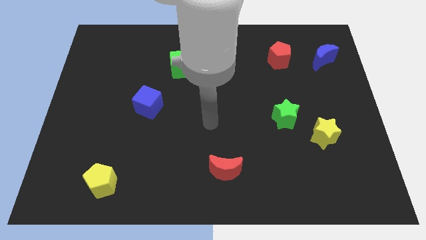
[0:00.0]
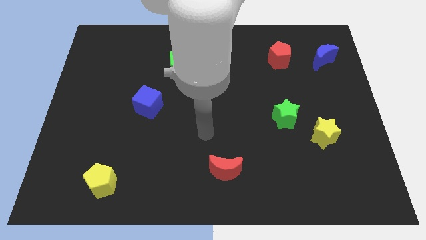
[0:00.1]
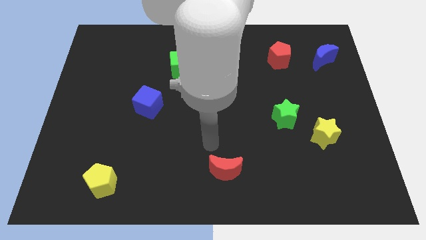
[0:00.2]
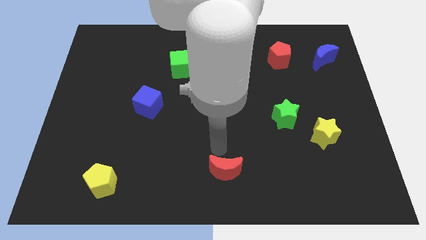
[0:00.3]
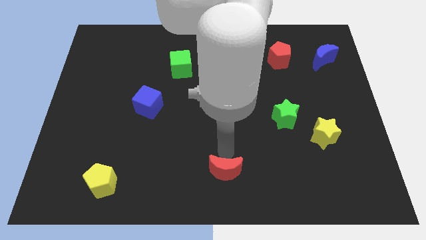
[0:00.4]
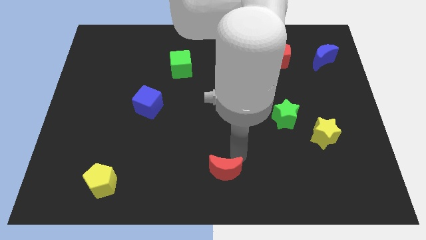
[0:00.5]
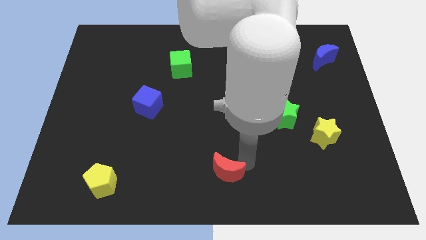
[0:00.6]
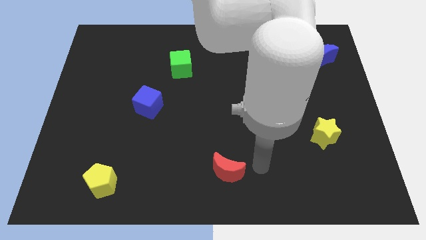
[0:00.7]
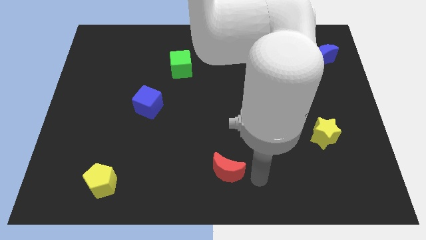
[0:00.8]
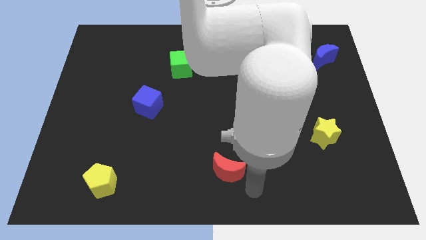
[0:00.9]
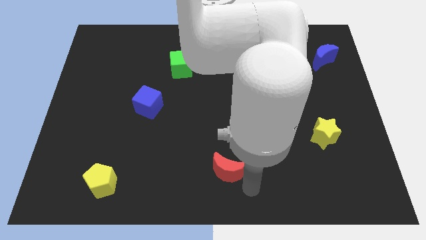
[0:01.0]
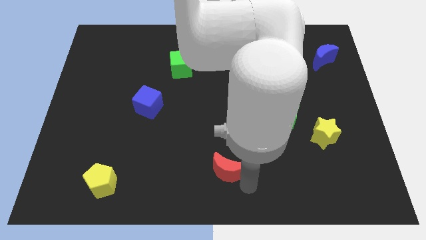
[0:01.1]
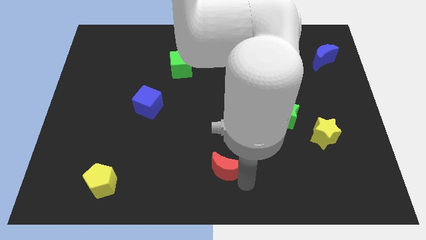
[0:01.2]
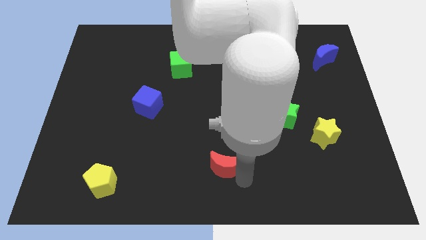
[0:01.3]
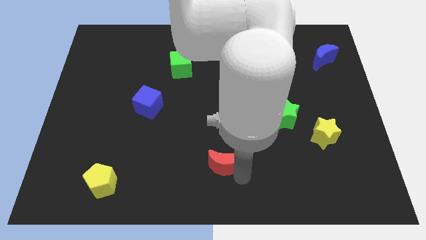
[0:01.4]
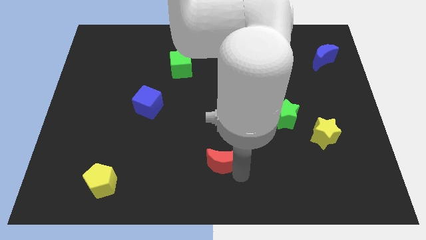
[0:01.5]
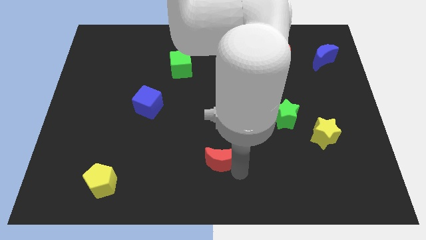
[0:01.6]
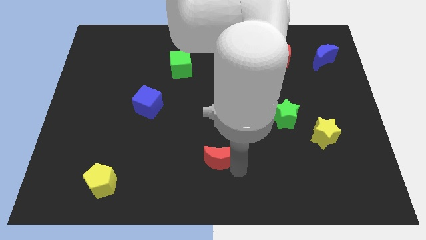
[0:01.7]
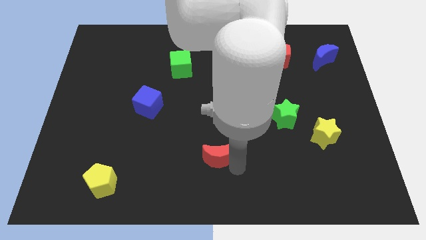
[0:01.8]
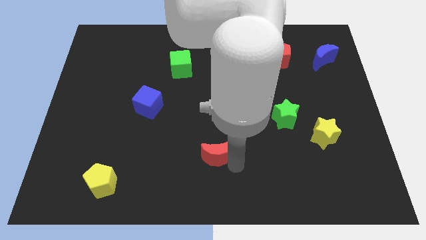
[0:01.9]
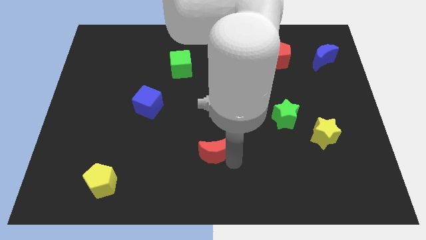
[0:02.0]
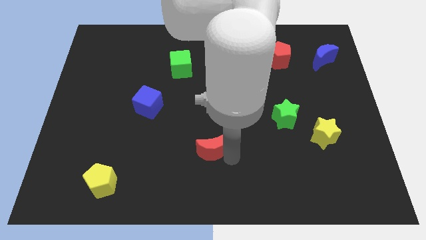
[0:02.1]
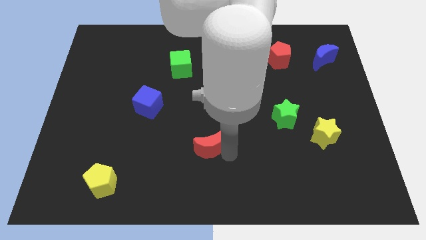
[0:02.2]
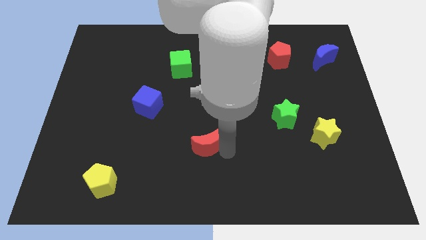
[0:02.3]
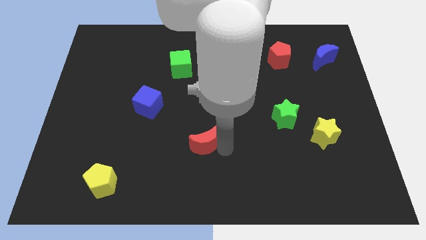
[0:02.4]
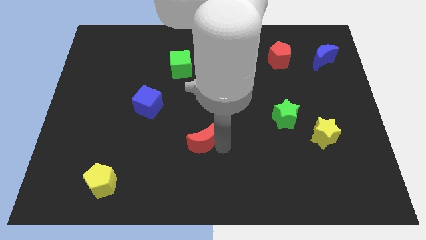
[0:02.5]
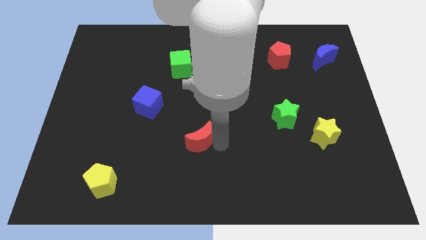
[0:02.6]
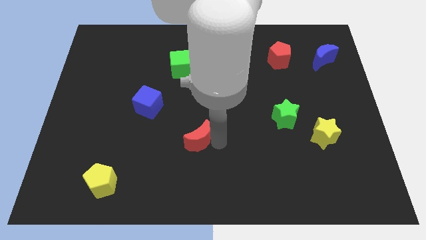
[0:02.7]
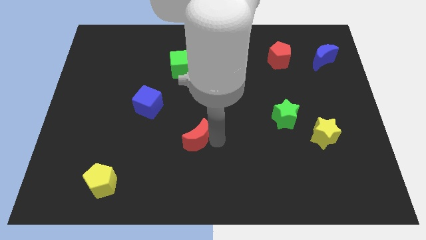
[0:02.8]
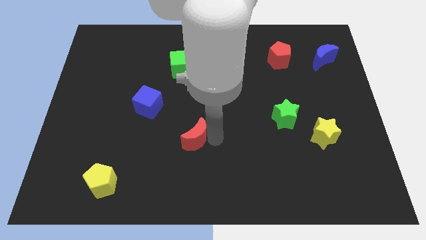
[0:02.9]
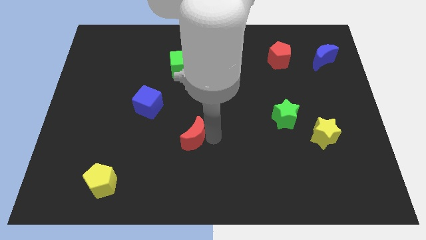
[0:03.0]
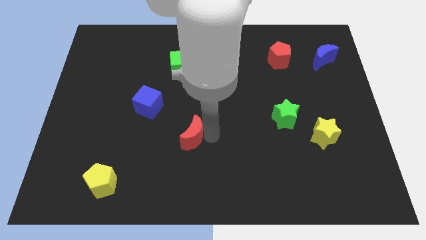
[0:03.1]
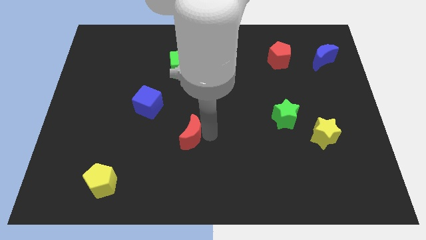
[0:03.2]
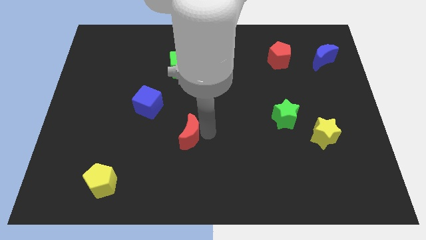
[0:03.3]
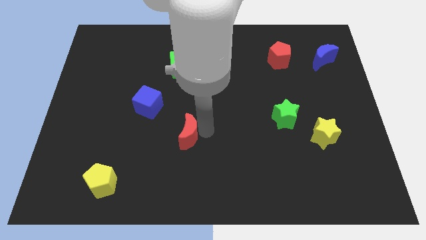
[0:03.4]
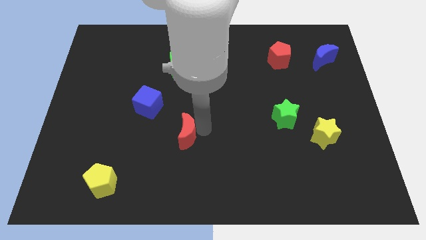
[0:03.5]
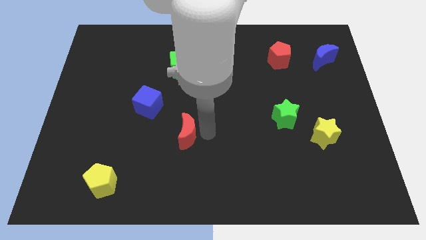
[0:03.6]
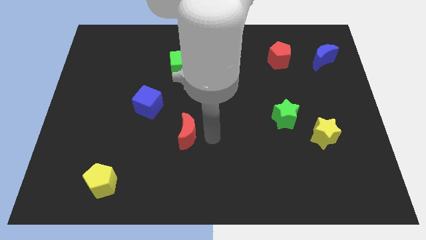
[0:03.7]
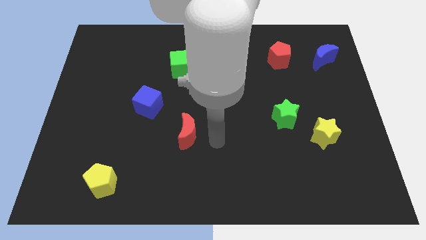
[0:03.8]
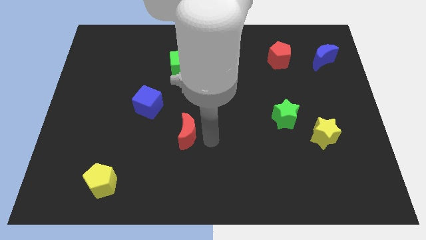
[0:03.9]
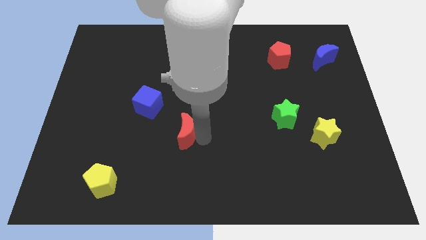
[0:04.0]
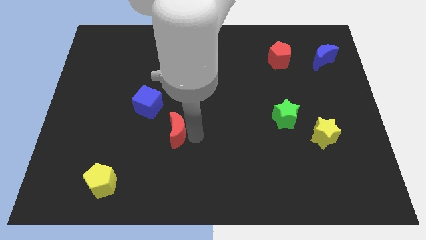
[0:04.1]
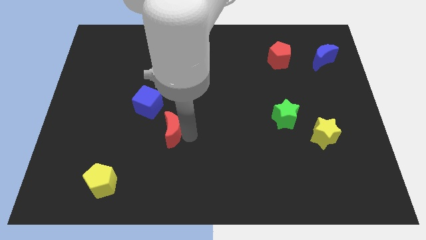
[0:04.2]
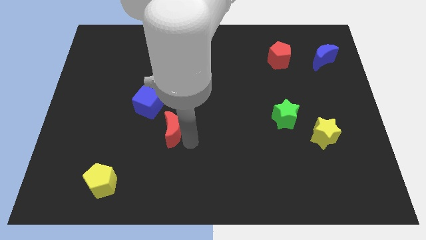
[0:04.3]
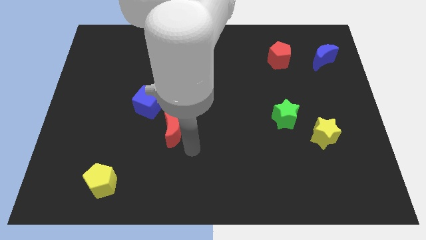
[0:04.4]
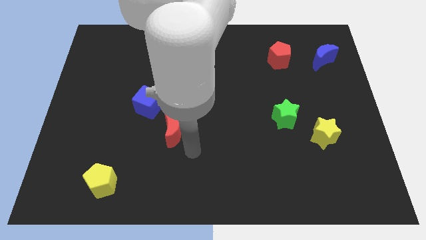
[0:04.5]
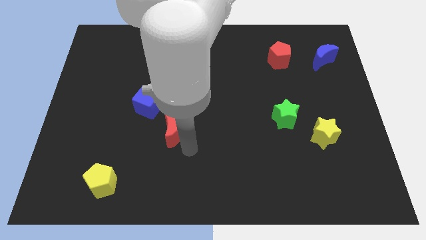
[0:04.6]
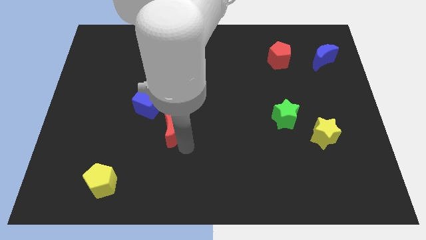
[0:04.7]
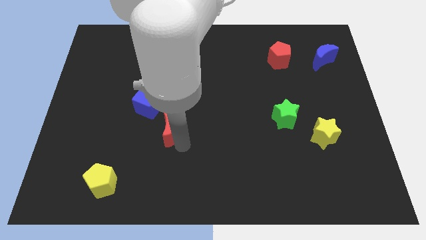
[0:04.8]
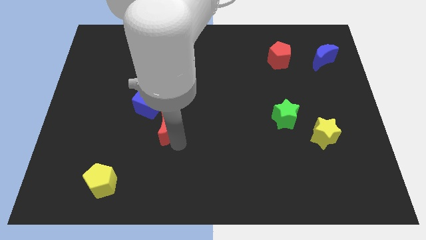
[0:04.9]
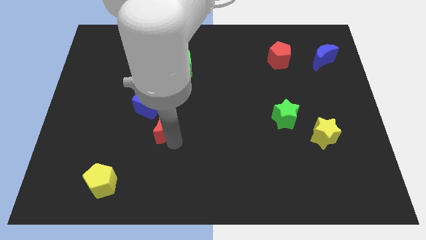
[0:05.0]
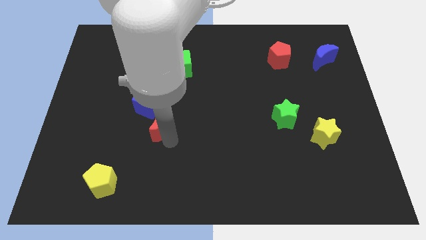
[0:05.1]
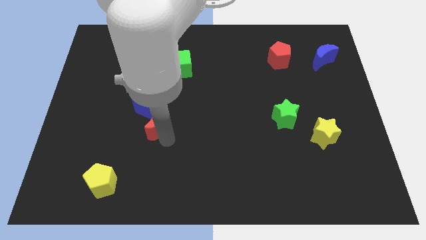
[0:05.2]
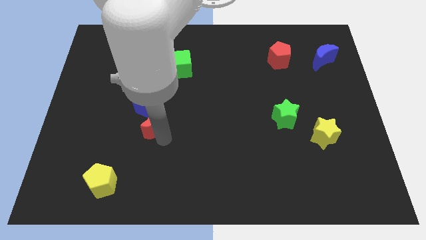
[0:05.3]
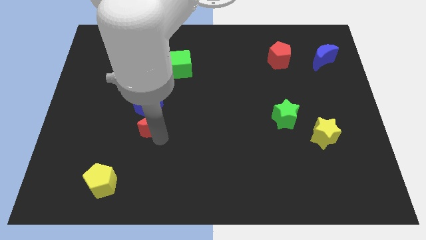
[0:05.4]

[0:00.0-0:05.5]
move the red moon towards the blue cube

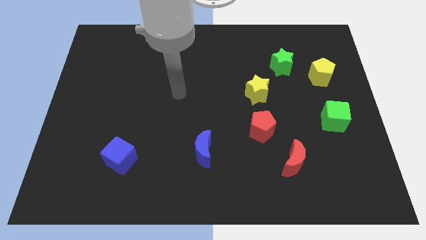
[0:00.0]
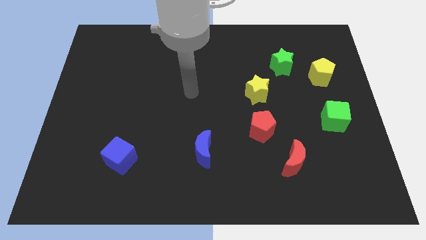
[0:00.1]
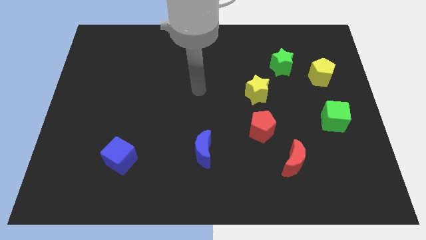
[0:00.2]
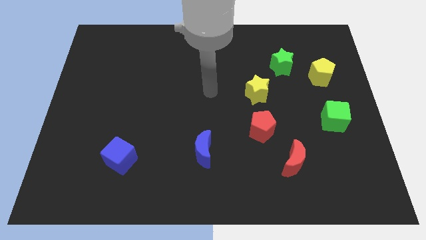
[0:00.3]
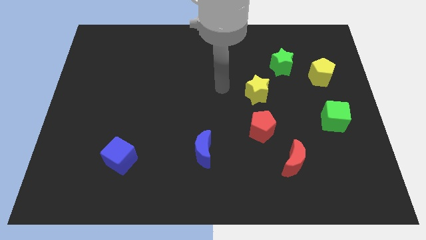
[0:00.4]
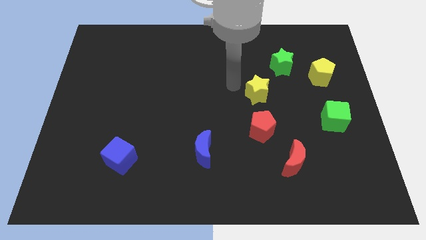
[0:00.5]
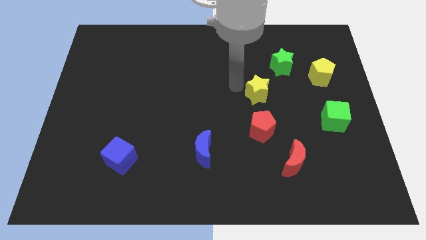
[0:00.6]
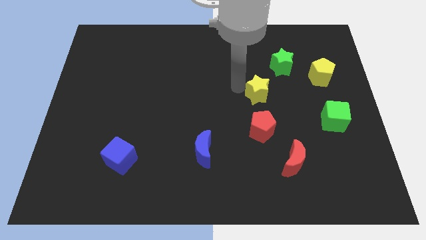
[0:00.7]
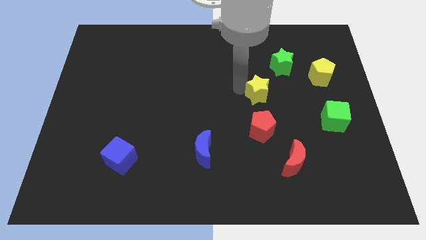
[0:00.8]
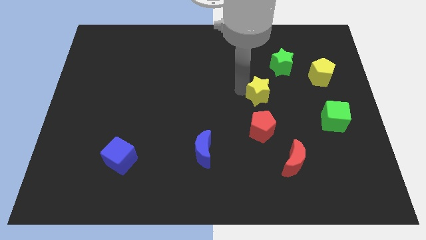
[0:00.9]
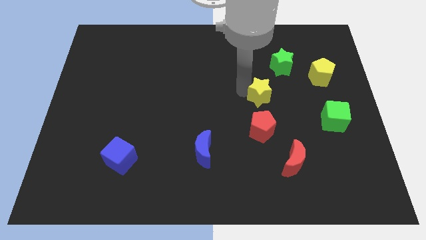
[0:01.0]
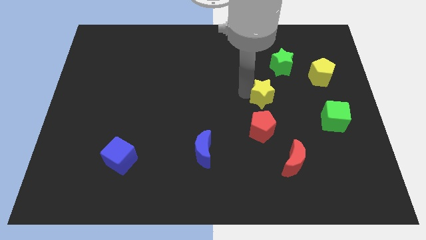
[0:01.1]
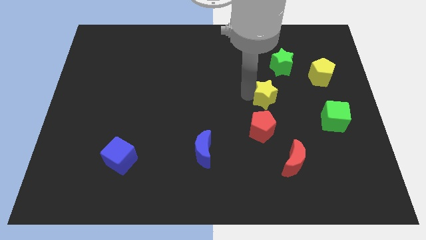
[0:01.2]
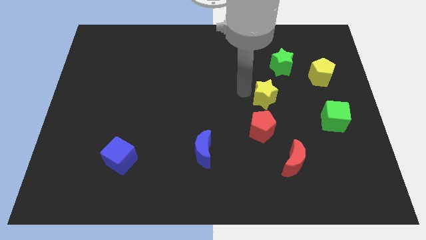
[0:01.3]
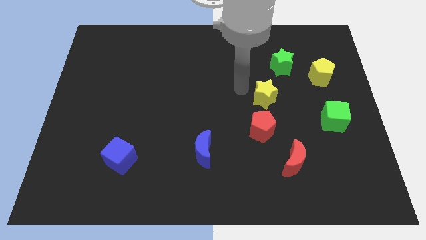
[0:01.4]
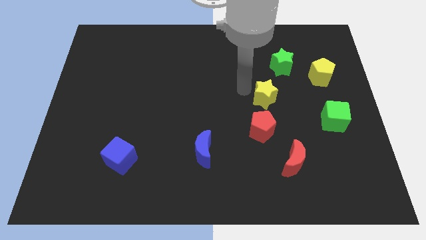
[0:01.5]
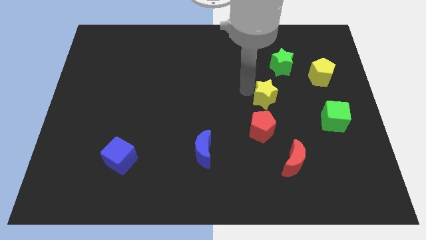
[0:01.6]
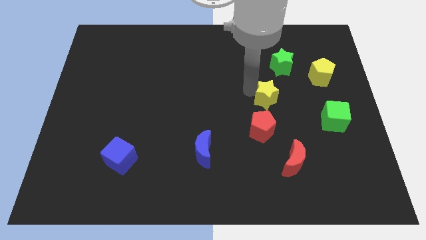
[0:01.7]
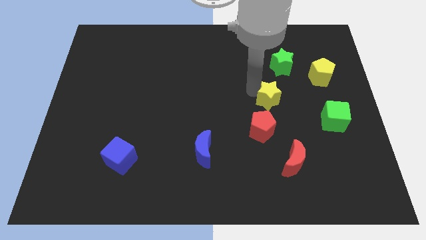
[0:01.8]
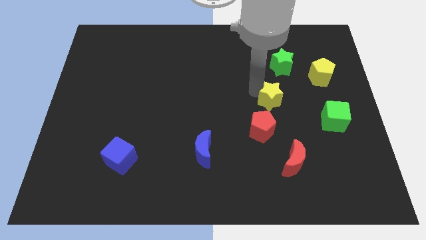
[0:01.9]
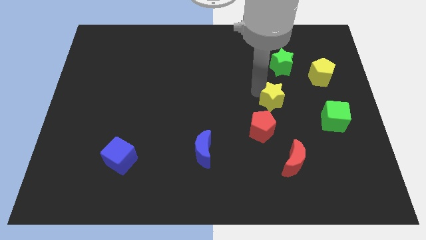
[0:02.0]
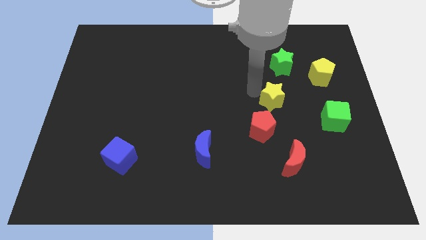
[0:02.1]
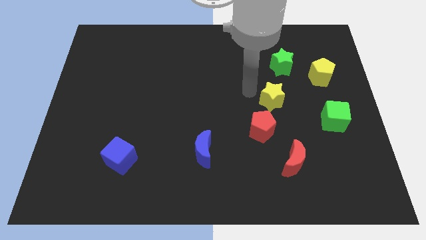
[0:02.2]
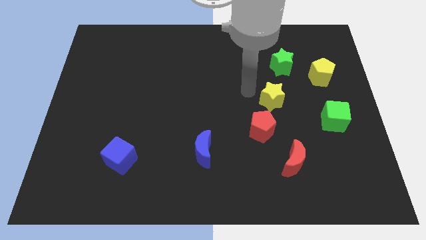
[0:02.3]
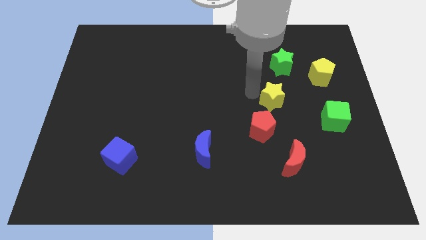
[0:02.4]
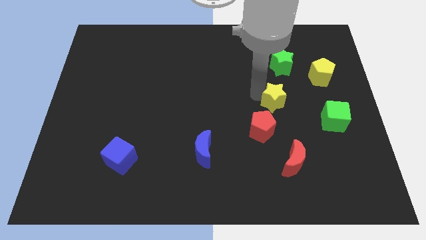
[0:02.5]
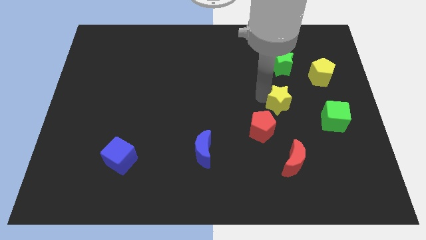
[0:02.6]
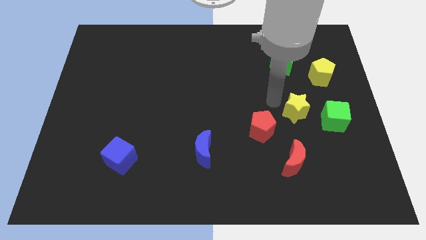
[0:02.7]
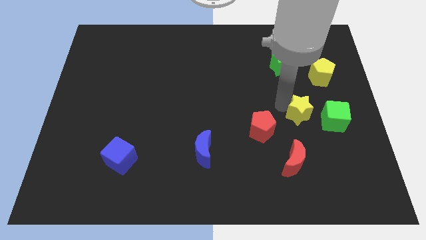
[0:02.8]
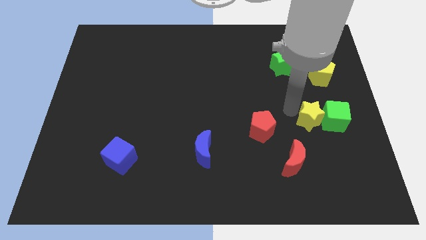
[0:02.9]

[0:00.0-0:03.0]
push the yellow star to the green cube
